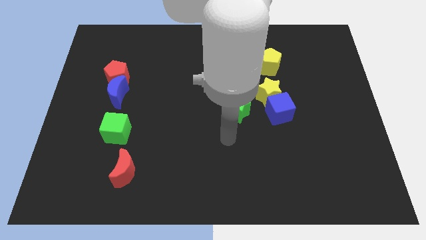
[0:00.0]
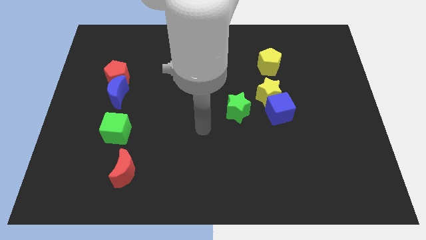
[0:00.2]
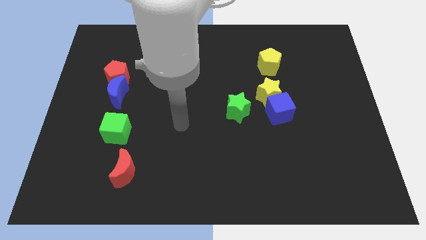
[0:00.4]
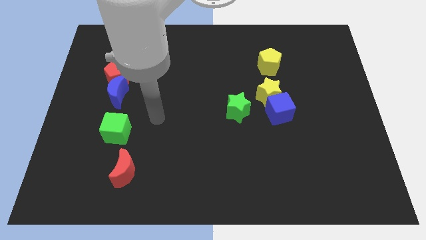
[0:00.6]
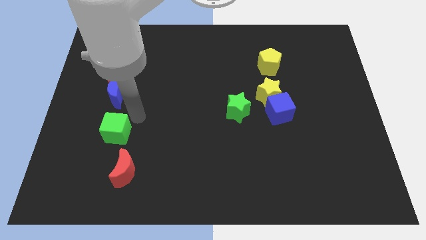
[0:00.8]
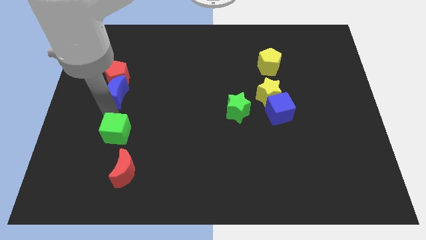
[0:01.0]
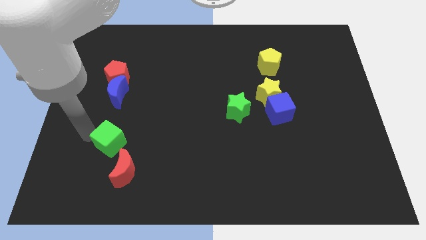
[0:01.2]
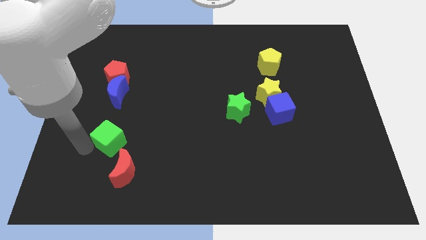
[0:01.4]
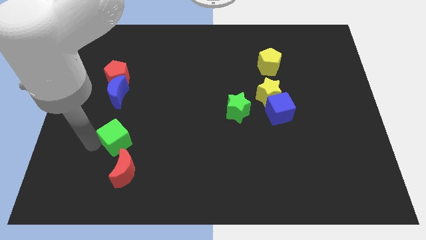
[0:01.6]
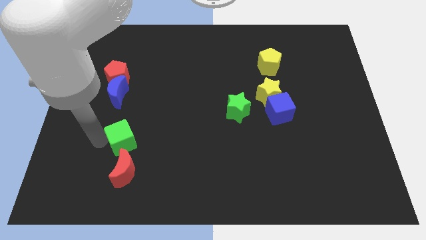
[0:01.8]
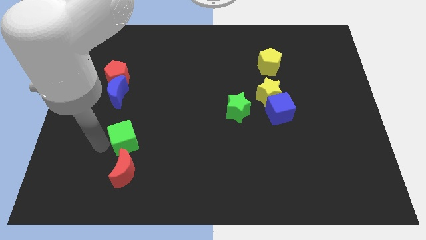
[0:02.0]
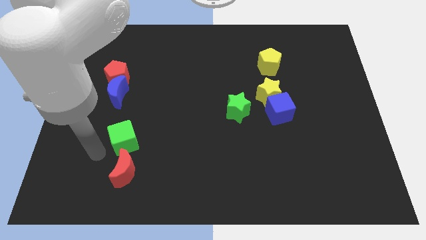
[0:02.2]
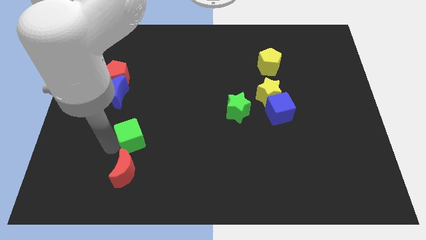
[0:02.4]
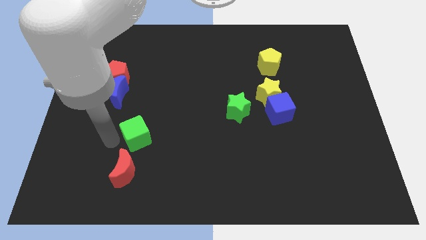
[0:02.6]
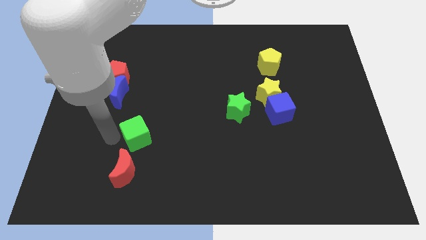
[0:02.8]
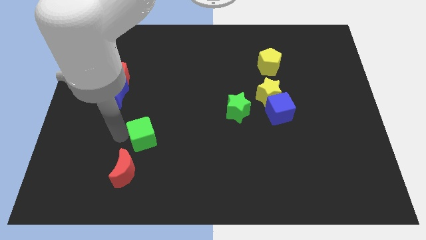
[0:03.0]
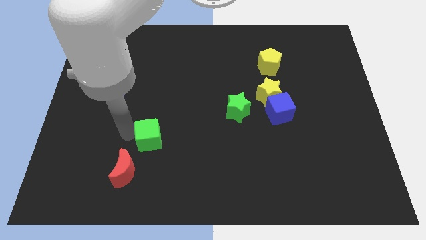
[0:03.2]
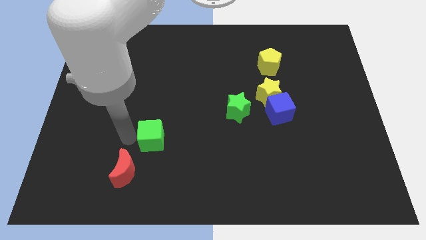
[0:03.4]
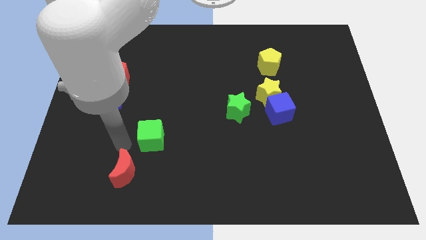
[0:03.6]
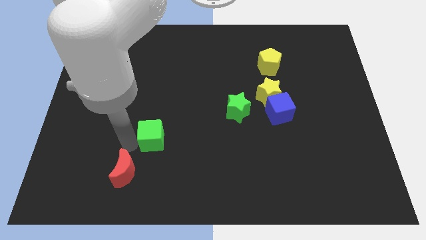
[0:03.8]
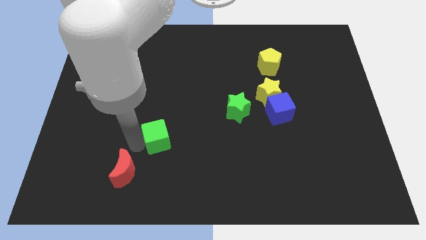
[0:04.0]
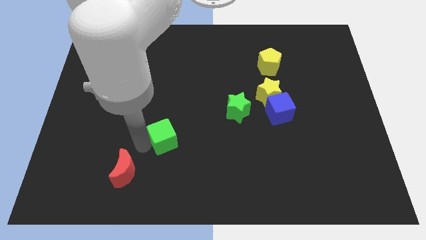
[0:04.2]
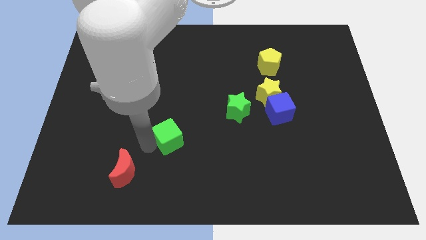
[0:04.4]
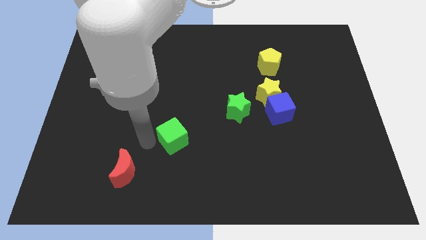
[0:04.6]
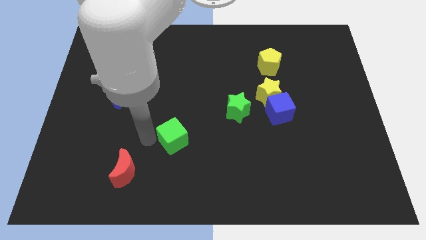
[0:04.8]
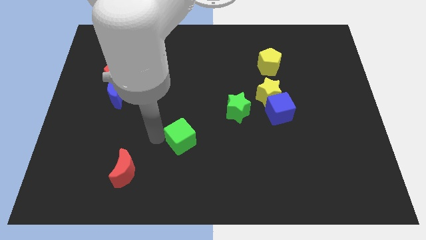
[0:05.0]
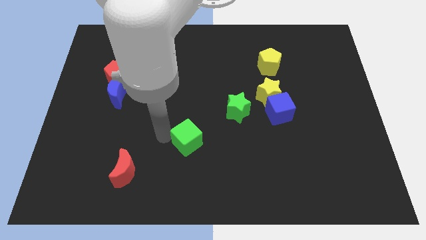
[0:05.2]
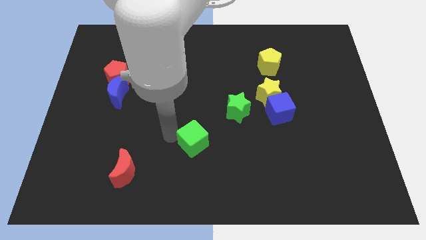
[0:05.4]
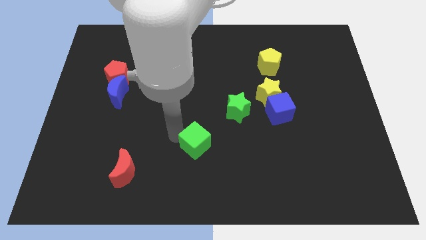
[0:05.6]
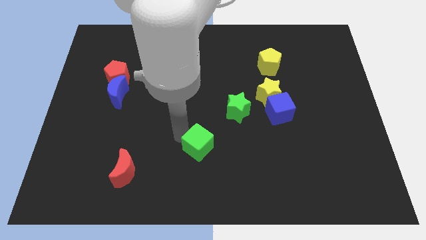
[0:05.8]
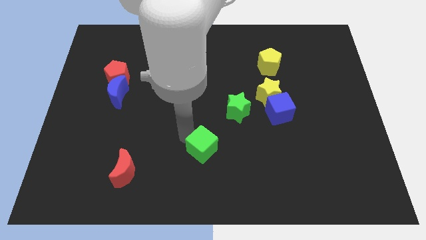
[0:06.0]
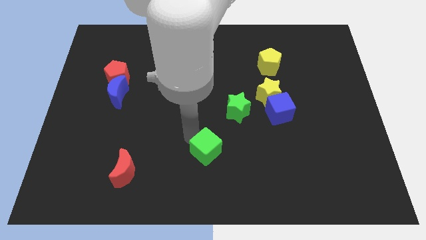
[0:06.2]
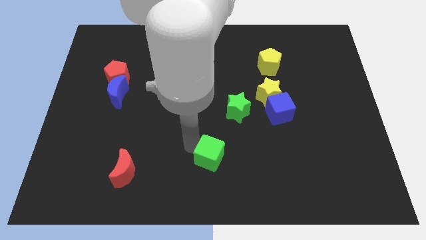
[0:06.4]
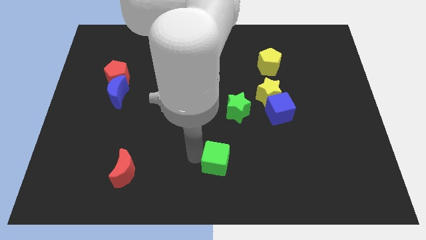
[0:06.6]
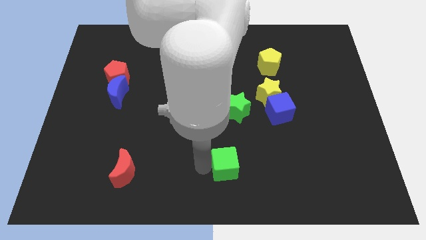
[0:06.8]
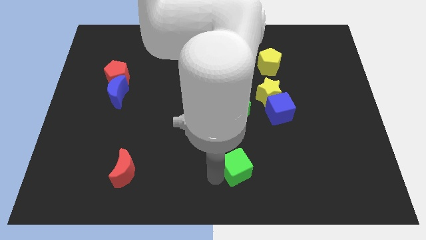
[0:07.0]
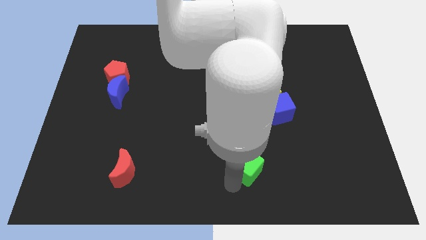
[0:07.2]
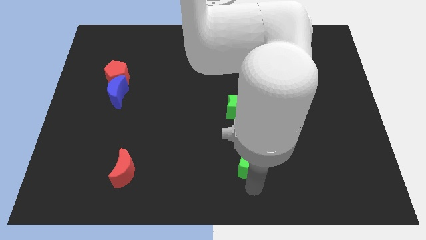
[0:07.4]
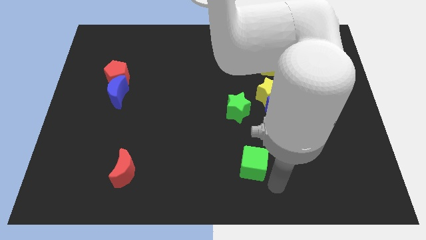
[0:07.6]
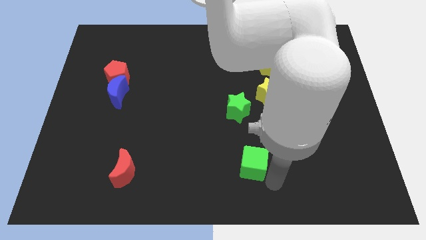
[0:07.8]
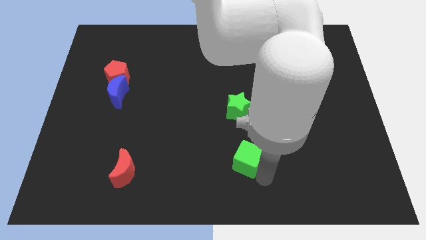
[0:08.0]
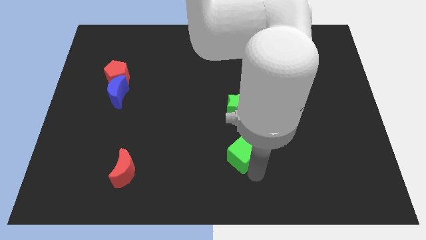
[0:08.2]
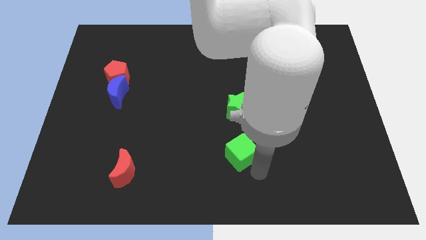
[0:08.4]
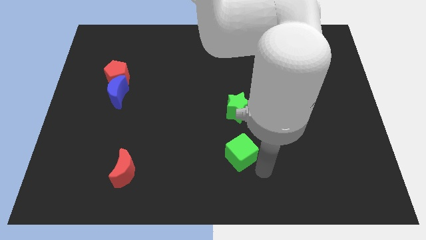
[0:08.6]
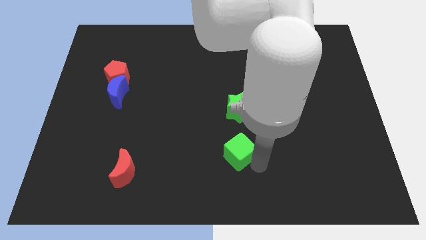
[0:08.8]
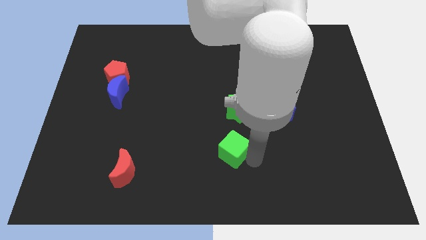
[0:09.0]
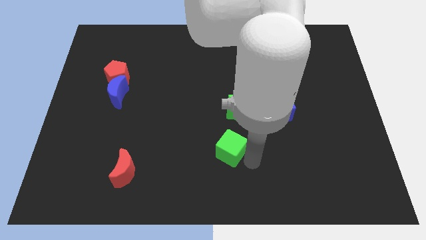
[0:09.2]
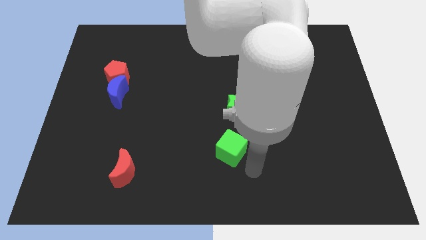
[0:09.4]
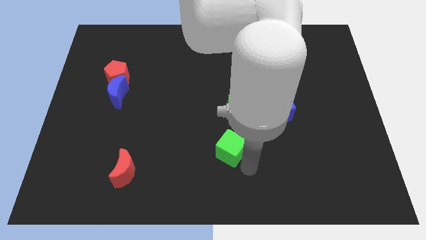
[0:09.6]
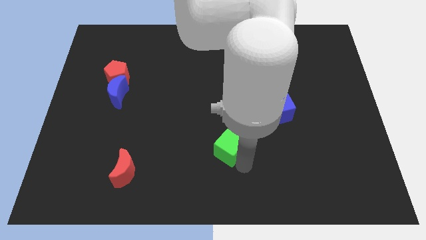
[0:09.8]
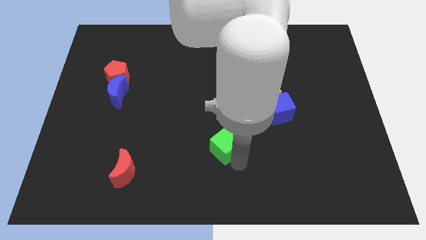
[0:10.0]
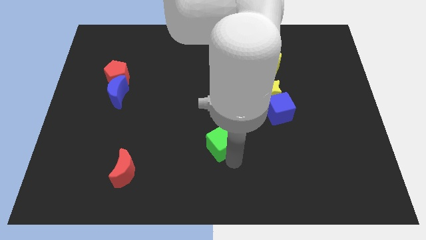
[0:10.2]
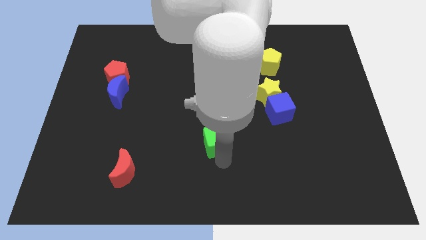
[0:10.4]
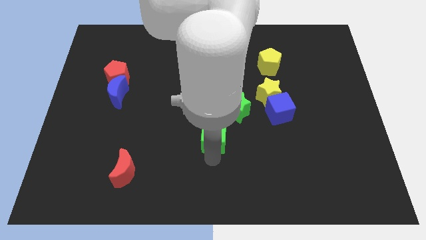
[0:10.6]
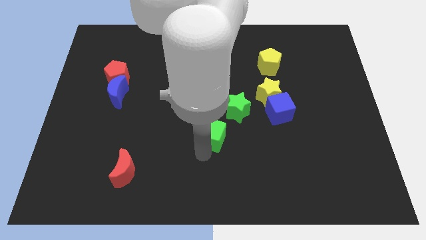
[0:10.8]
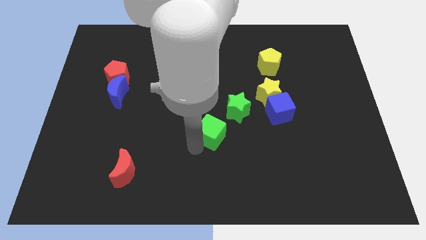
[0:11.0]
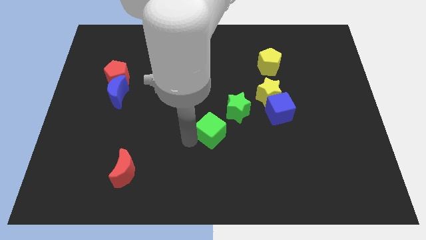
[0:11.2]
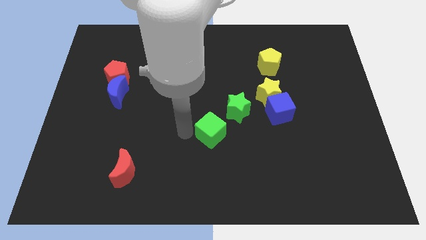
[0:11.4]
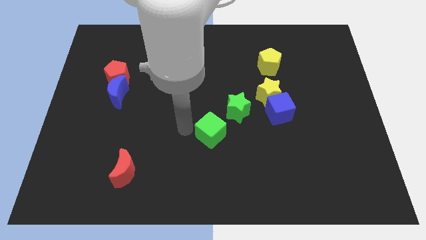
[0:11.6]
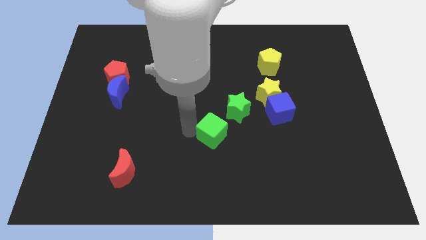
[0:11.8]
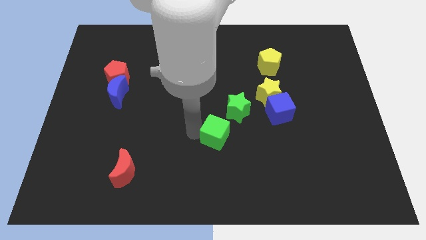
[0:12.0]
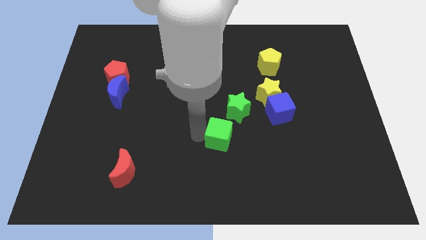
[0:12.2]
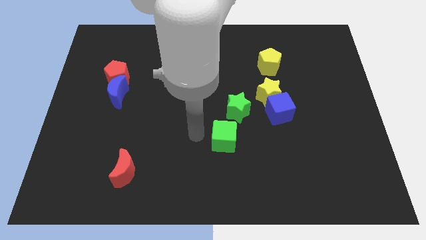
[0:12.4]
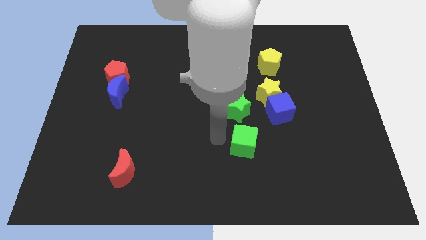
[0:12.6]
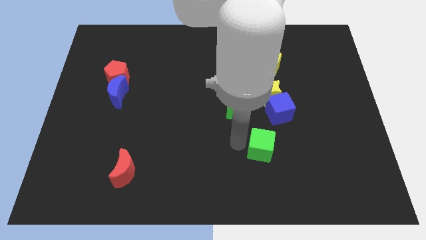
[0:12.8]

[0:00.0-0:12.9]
put the green cube below the blue cube

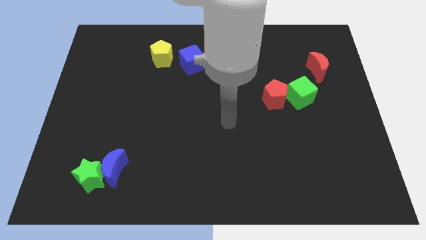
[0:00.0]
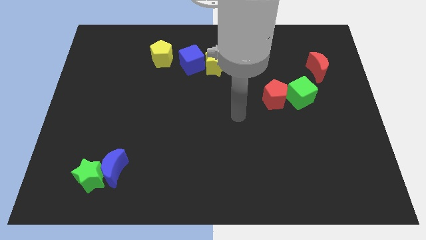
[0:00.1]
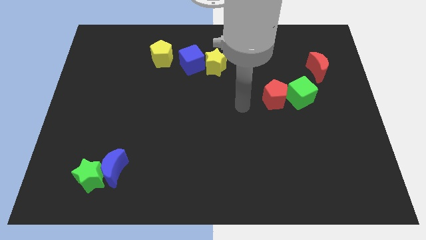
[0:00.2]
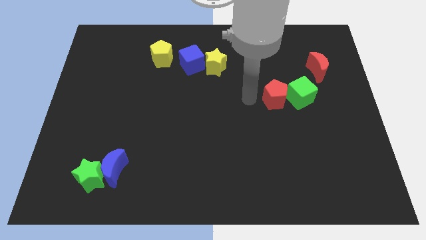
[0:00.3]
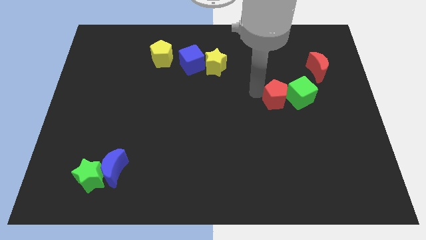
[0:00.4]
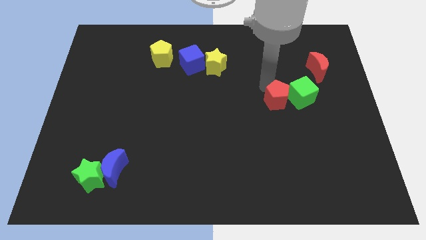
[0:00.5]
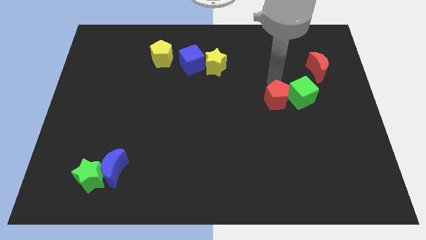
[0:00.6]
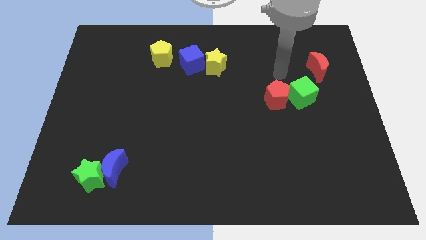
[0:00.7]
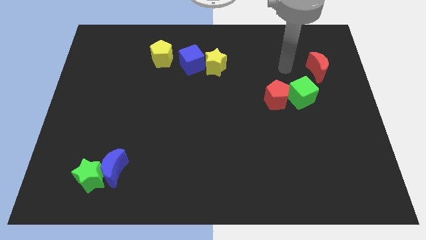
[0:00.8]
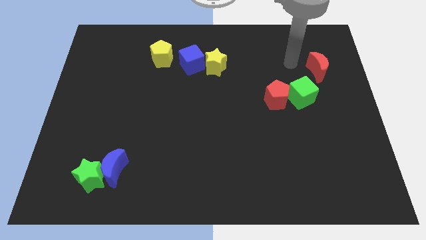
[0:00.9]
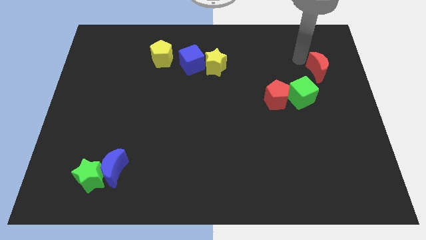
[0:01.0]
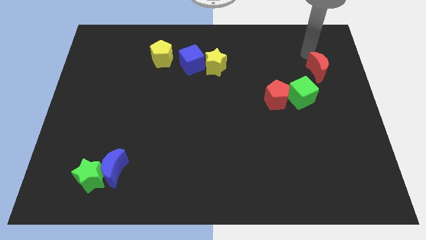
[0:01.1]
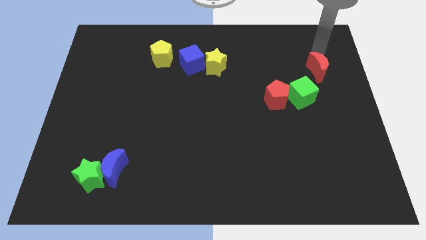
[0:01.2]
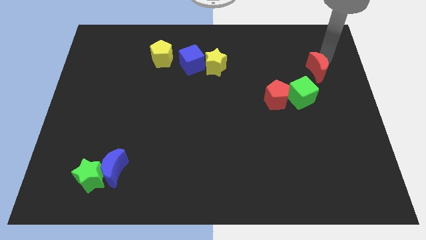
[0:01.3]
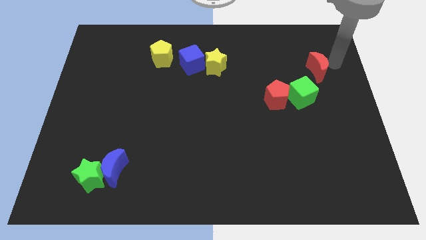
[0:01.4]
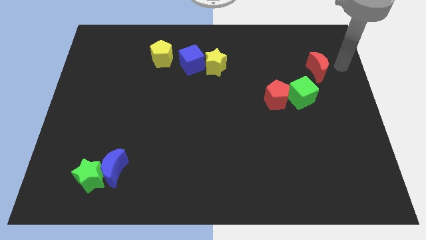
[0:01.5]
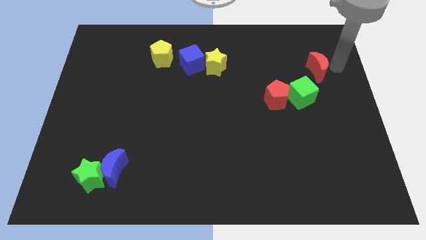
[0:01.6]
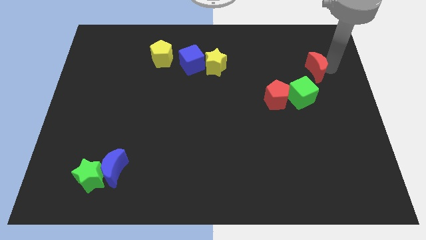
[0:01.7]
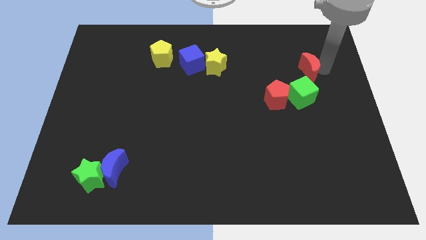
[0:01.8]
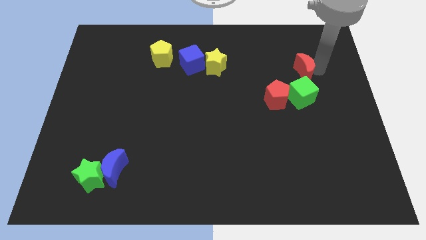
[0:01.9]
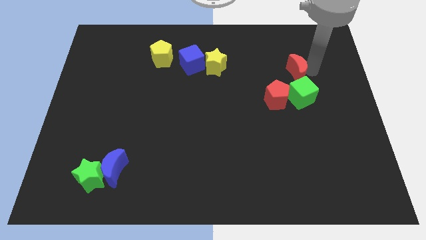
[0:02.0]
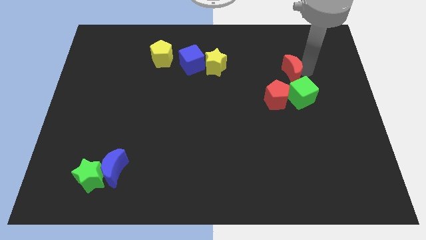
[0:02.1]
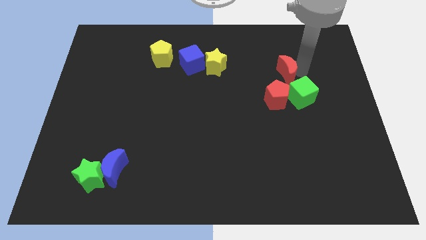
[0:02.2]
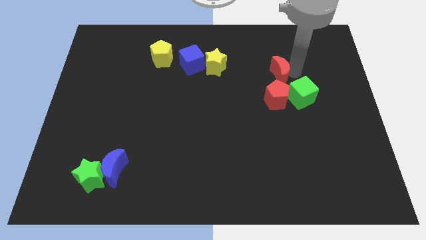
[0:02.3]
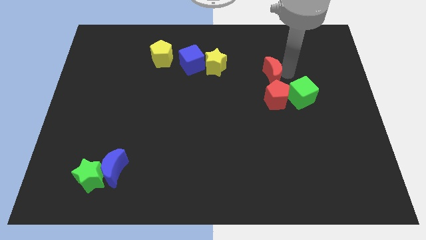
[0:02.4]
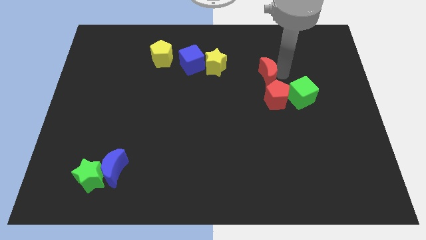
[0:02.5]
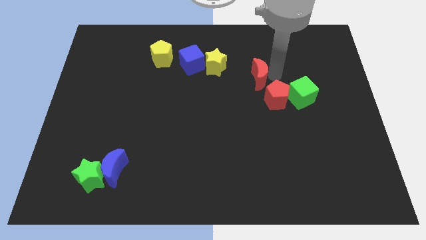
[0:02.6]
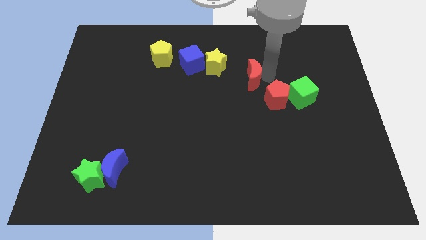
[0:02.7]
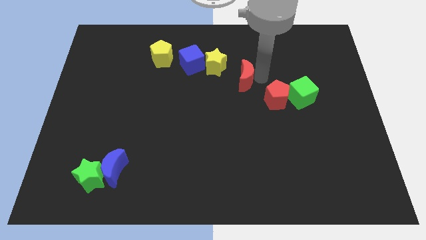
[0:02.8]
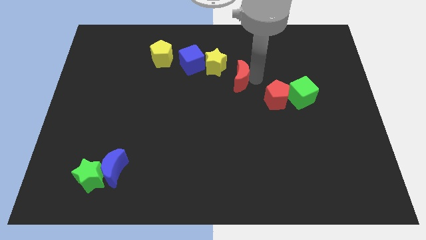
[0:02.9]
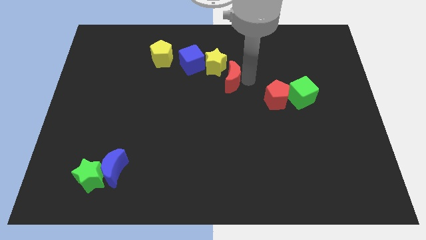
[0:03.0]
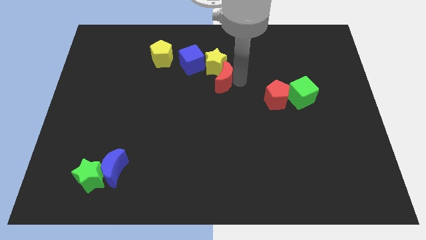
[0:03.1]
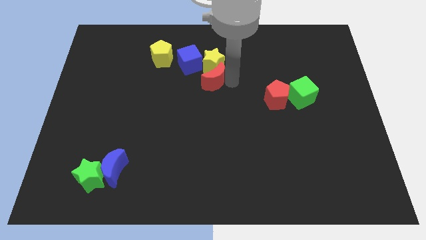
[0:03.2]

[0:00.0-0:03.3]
put the red moon to the bottom left of the yellow star
